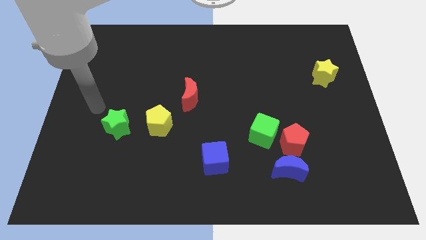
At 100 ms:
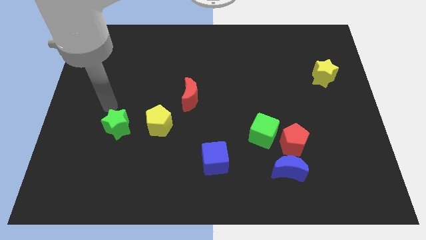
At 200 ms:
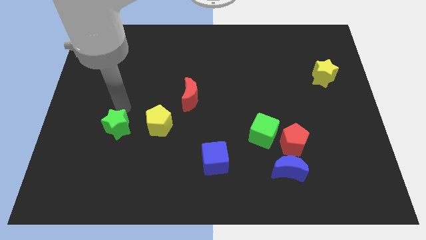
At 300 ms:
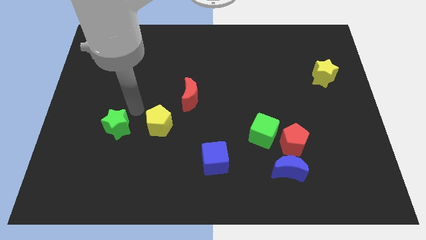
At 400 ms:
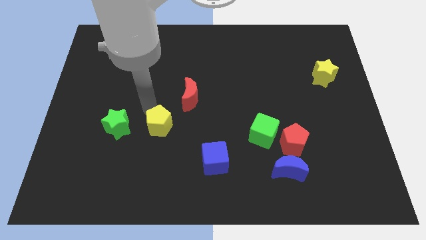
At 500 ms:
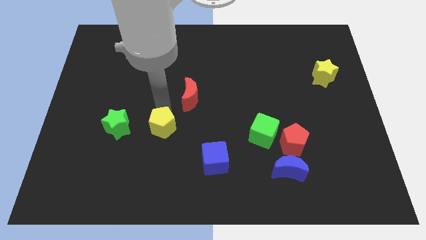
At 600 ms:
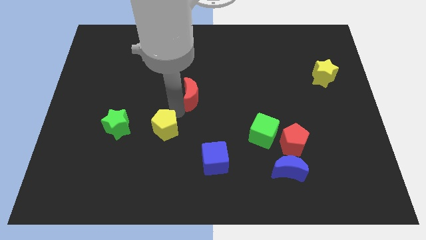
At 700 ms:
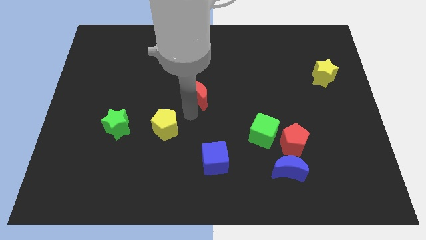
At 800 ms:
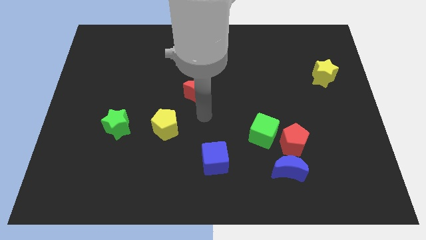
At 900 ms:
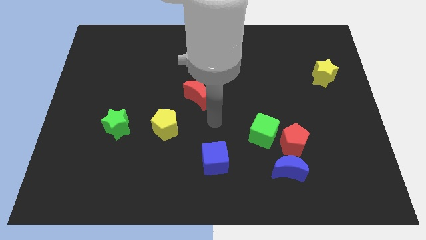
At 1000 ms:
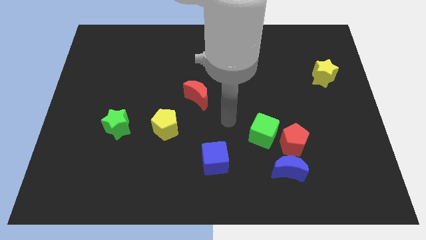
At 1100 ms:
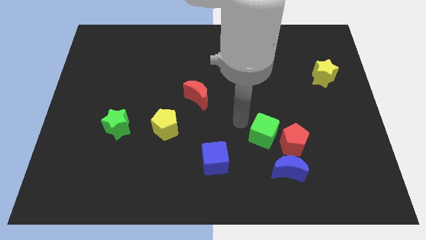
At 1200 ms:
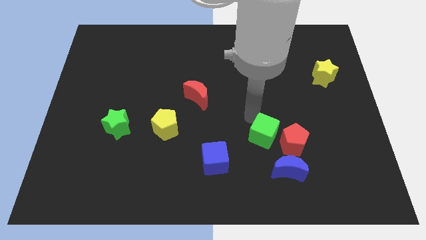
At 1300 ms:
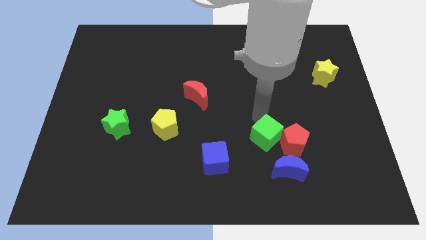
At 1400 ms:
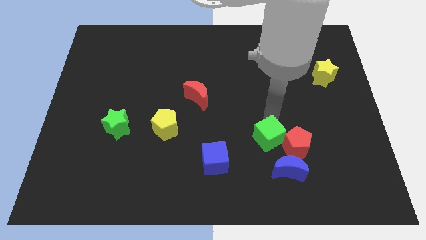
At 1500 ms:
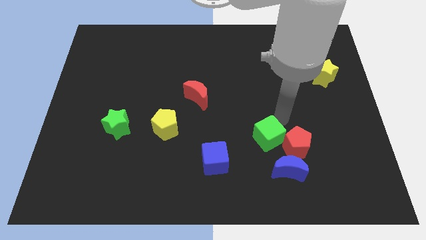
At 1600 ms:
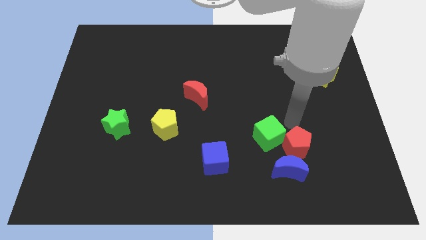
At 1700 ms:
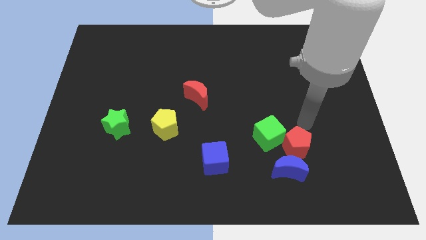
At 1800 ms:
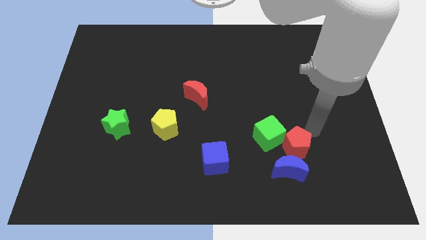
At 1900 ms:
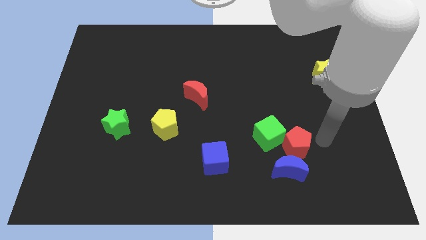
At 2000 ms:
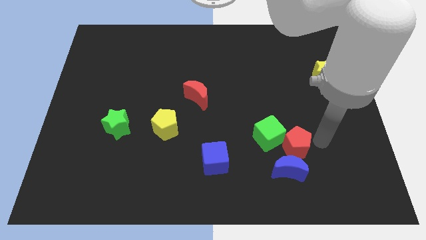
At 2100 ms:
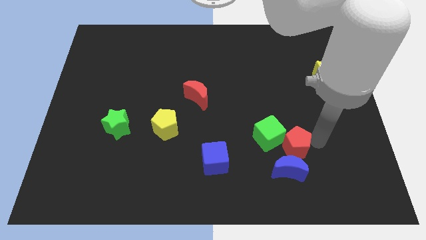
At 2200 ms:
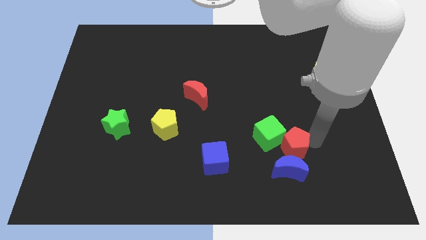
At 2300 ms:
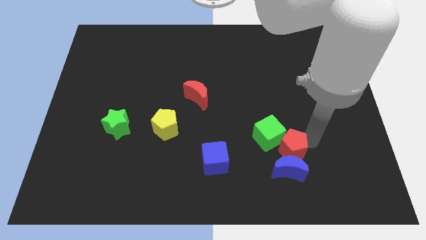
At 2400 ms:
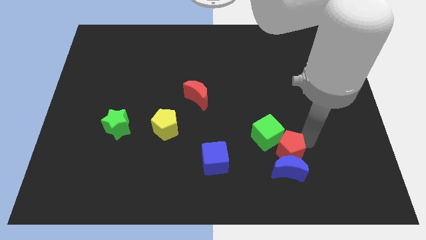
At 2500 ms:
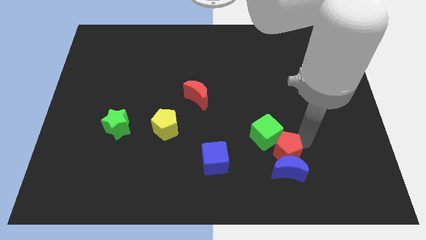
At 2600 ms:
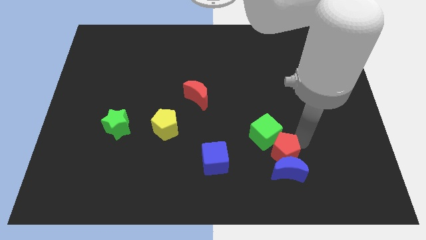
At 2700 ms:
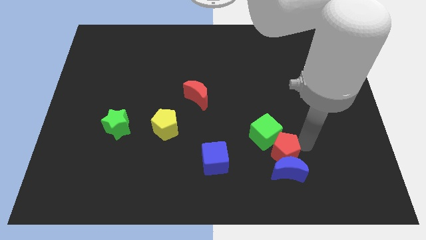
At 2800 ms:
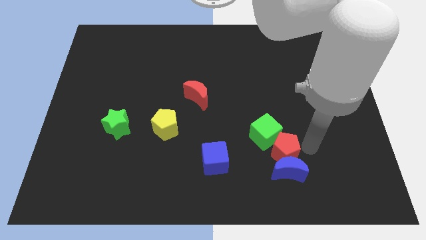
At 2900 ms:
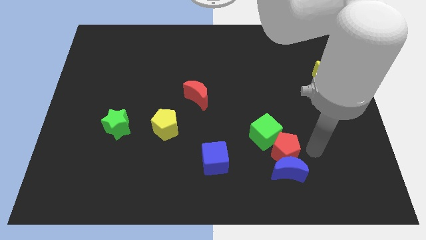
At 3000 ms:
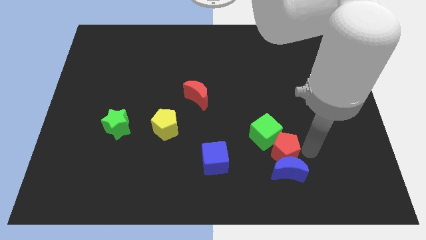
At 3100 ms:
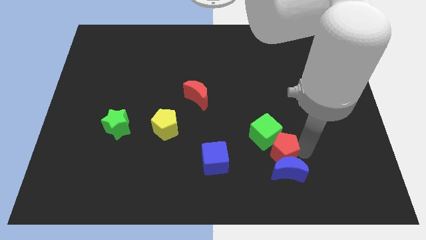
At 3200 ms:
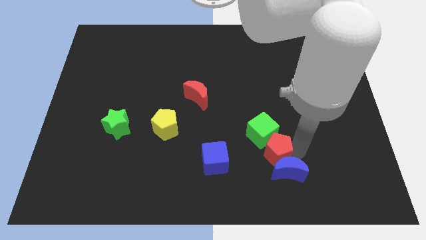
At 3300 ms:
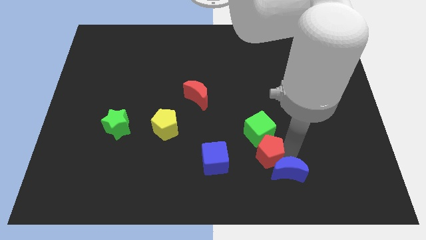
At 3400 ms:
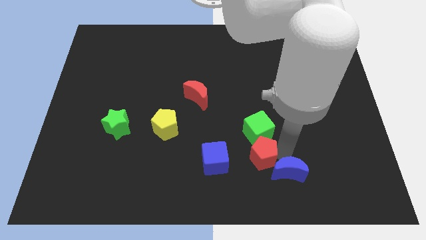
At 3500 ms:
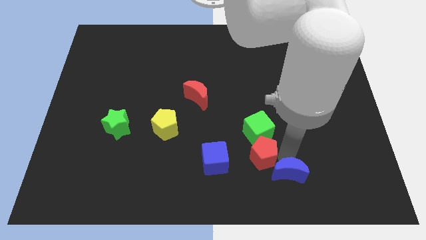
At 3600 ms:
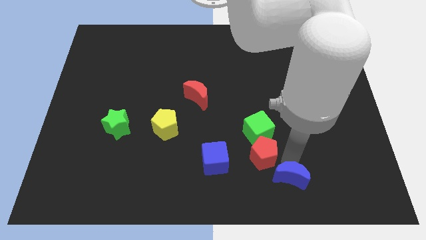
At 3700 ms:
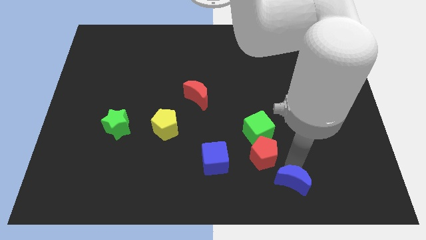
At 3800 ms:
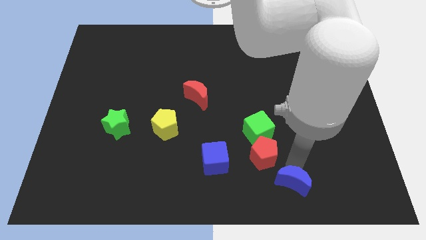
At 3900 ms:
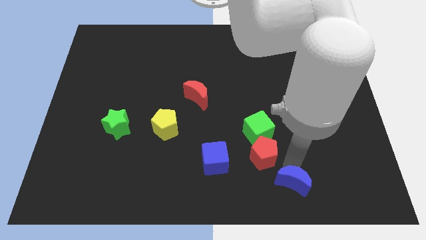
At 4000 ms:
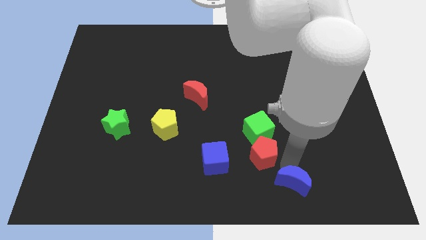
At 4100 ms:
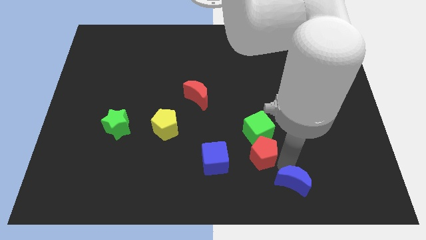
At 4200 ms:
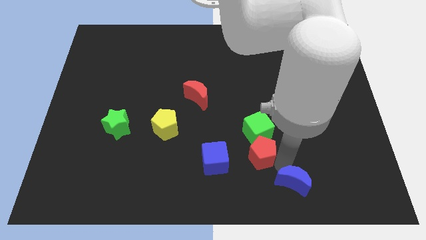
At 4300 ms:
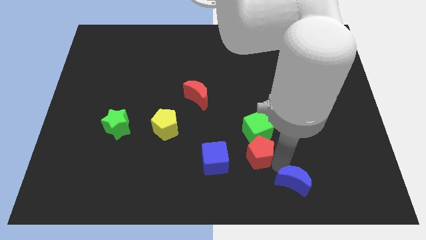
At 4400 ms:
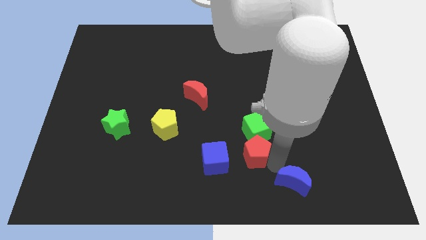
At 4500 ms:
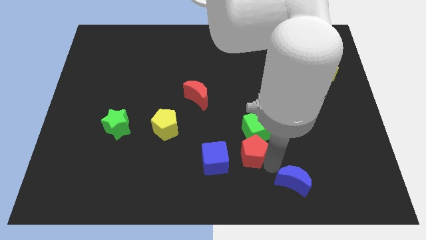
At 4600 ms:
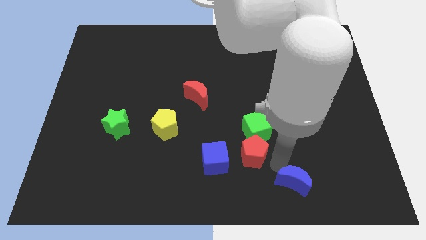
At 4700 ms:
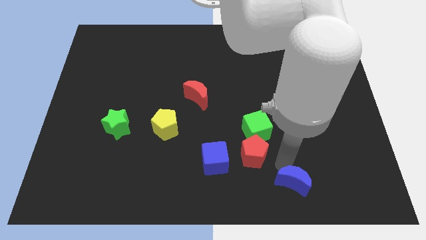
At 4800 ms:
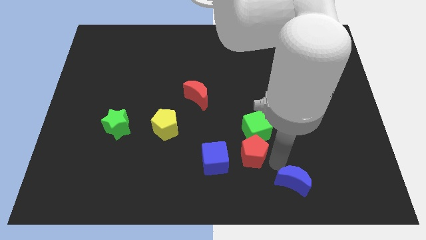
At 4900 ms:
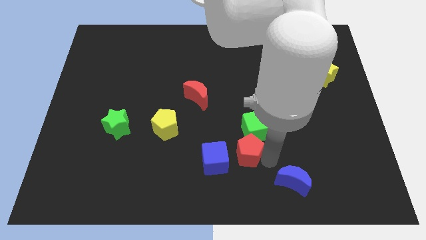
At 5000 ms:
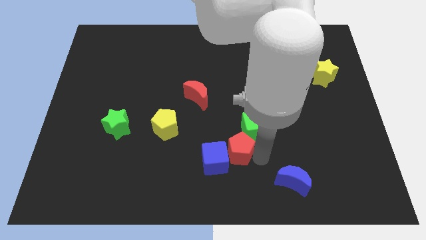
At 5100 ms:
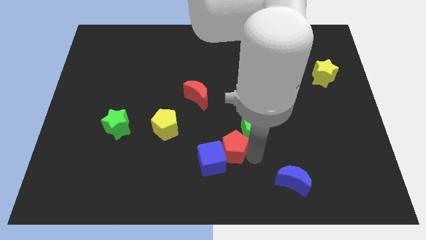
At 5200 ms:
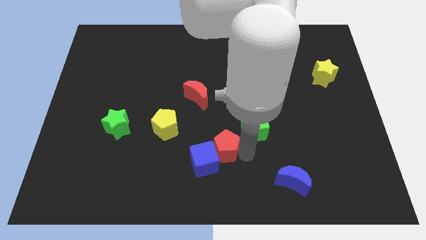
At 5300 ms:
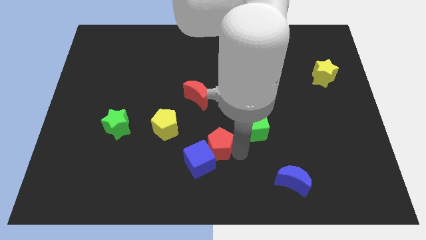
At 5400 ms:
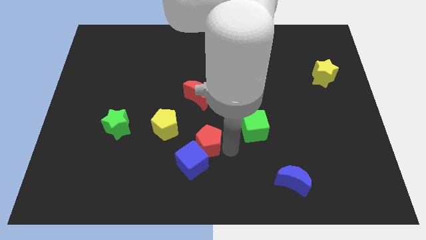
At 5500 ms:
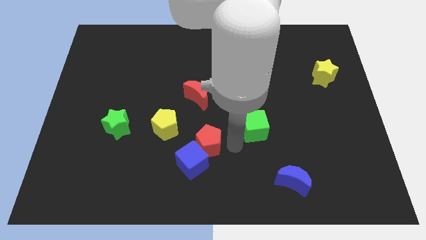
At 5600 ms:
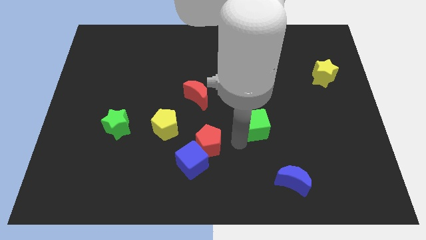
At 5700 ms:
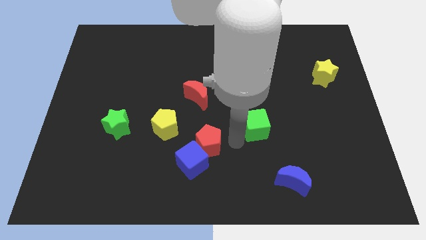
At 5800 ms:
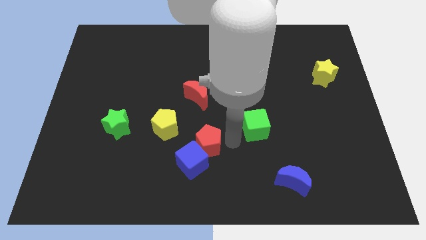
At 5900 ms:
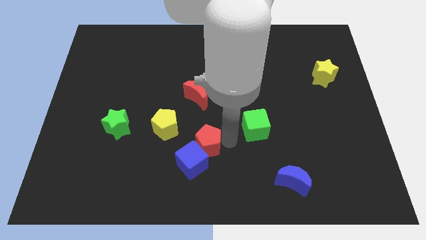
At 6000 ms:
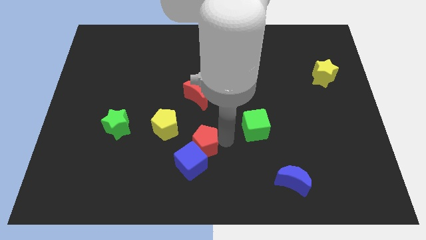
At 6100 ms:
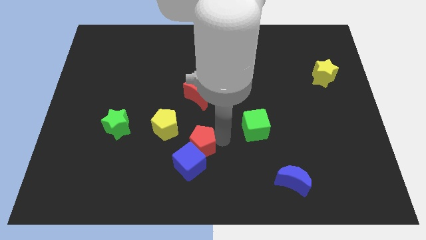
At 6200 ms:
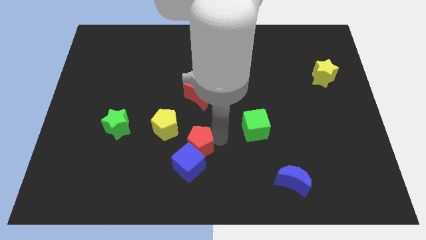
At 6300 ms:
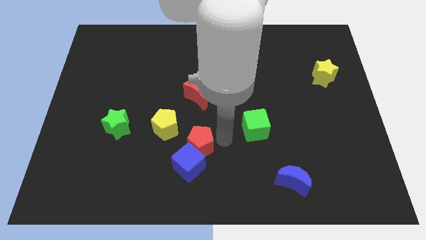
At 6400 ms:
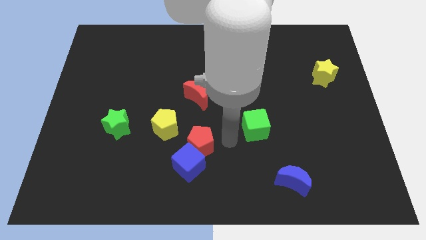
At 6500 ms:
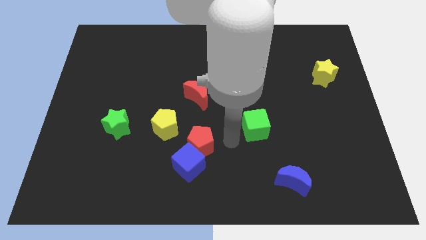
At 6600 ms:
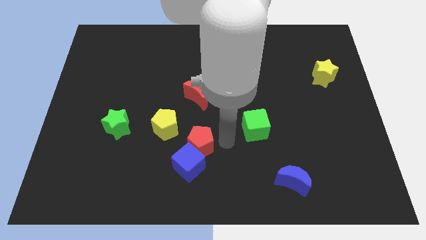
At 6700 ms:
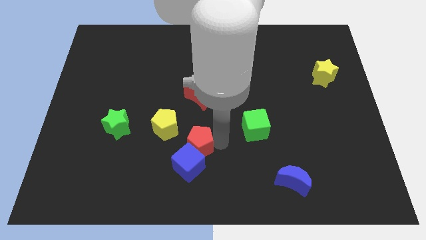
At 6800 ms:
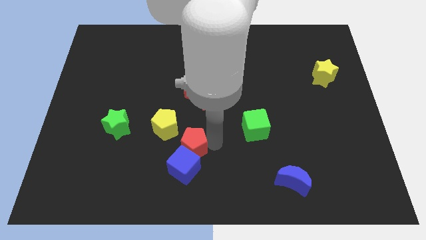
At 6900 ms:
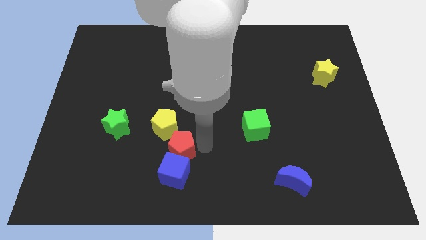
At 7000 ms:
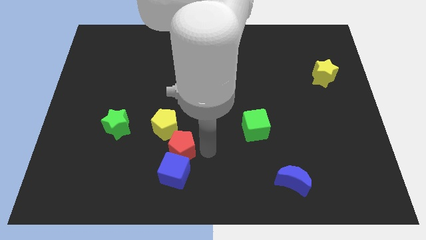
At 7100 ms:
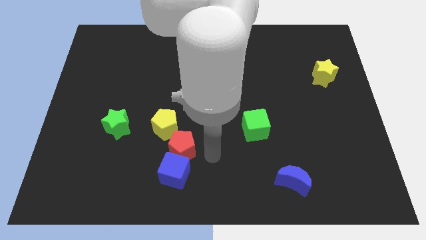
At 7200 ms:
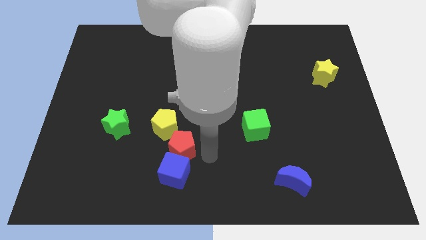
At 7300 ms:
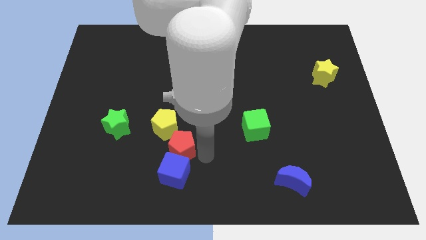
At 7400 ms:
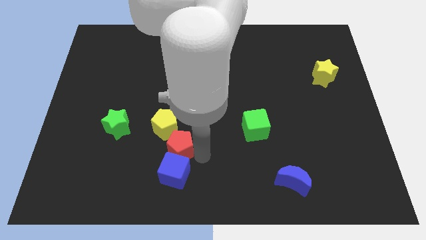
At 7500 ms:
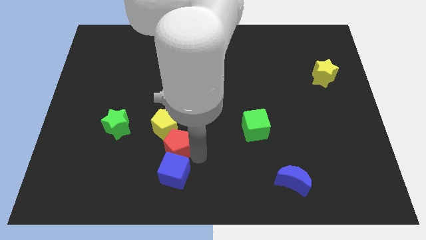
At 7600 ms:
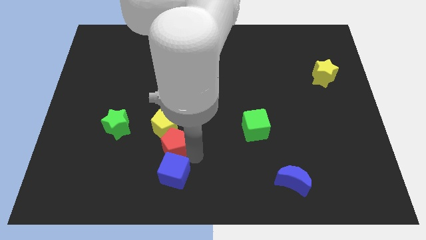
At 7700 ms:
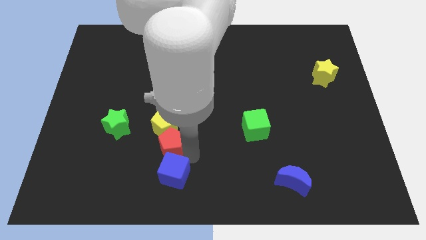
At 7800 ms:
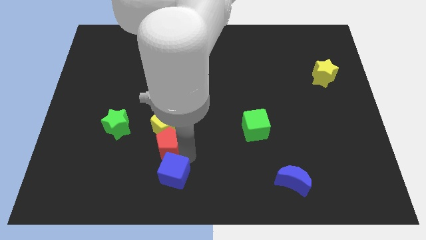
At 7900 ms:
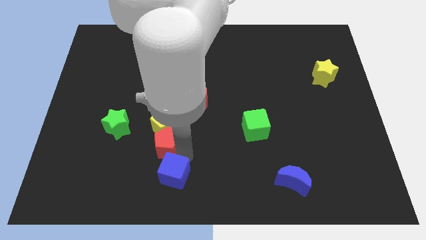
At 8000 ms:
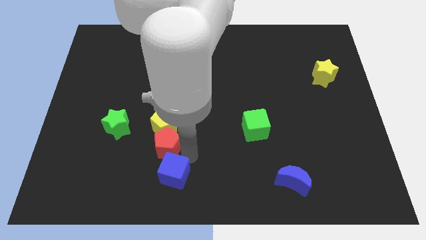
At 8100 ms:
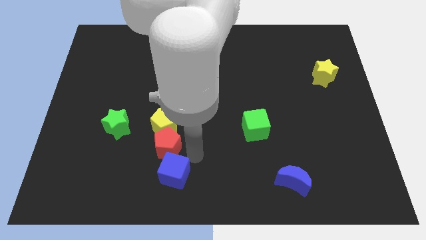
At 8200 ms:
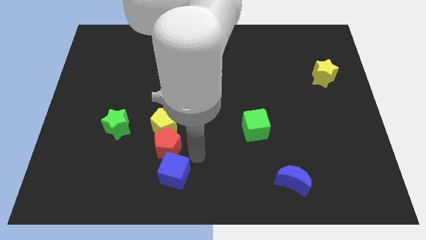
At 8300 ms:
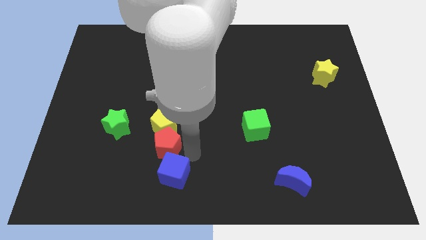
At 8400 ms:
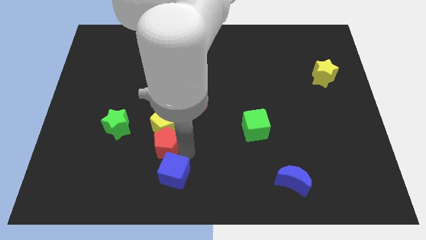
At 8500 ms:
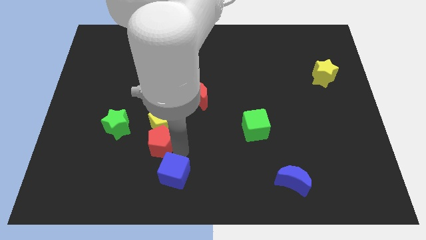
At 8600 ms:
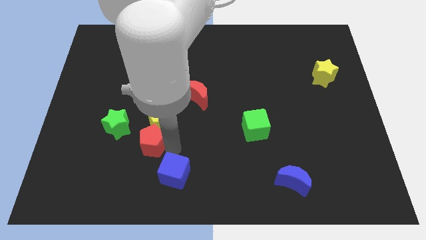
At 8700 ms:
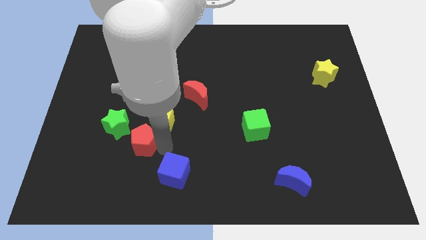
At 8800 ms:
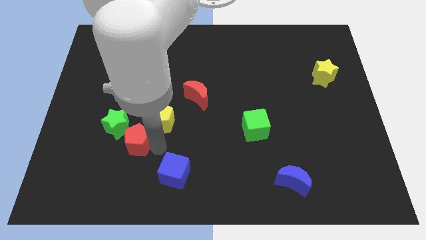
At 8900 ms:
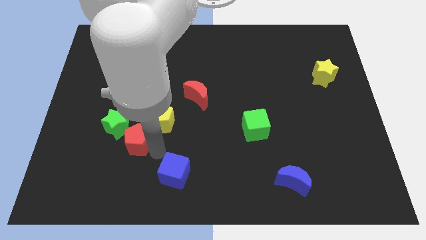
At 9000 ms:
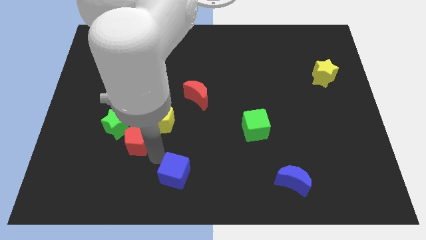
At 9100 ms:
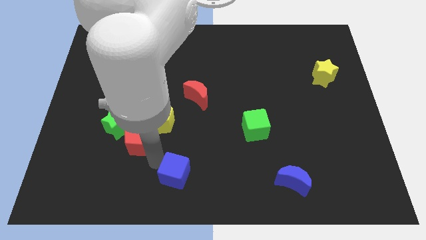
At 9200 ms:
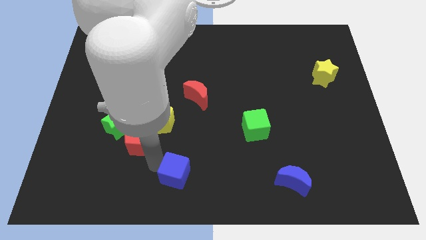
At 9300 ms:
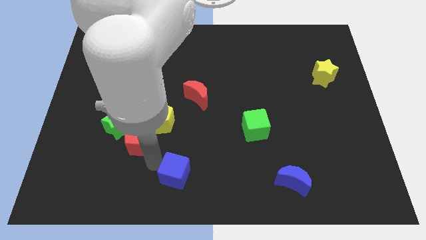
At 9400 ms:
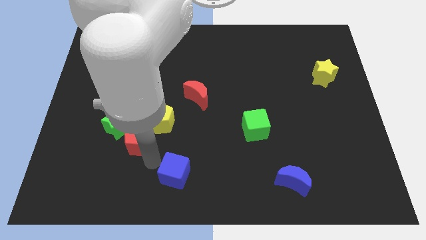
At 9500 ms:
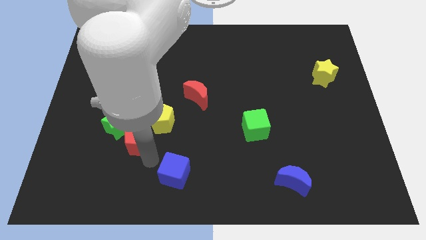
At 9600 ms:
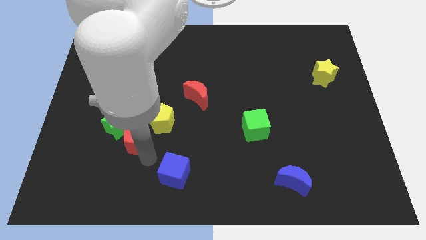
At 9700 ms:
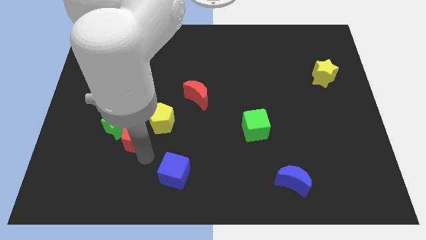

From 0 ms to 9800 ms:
slide the red pentagon to the green star
